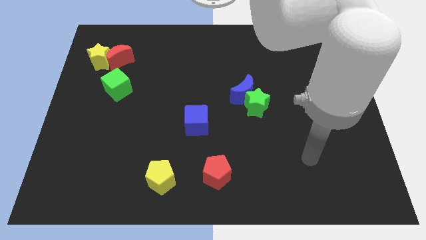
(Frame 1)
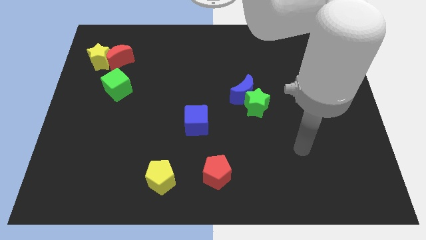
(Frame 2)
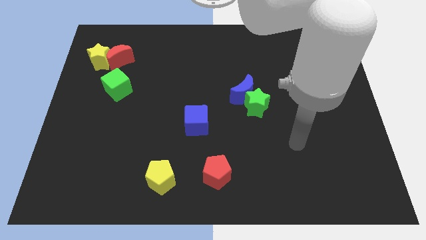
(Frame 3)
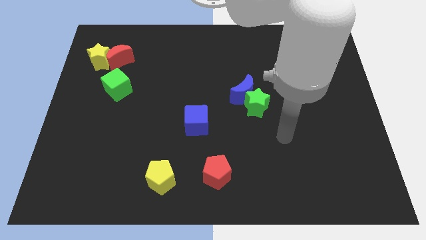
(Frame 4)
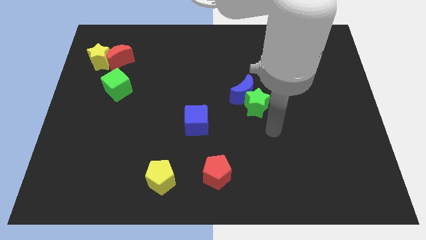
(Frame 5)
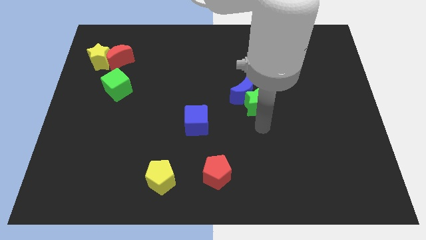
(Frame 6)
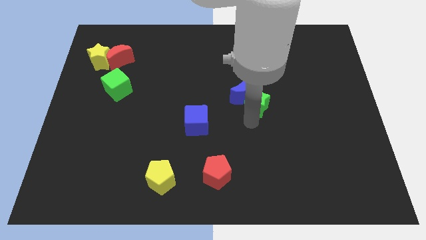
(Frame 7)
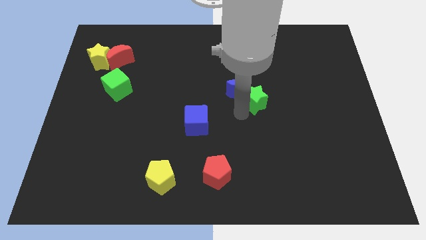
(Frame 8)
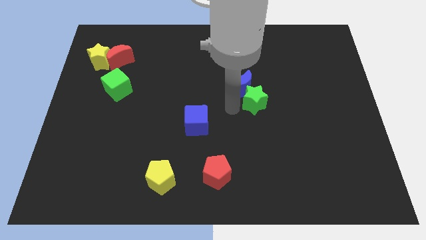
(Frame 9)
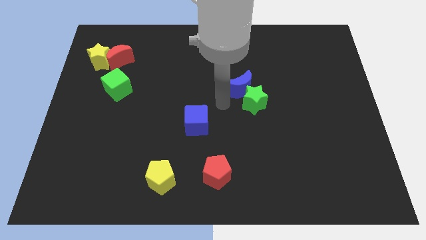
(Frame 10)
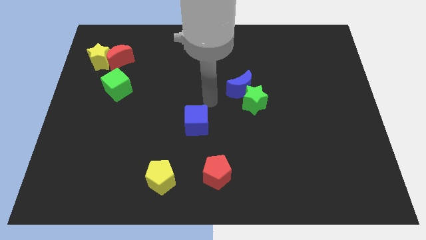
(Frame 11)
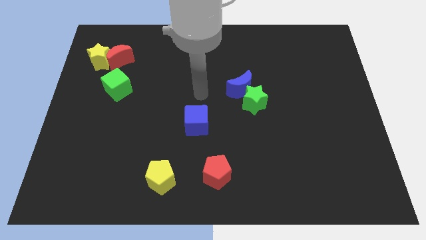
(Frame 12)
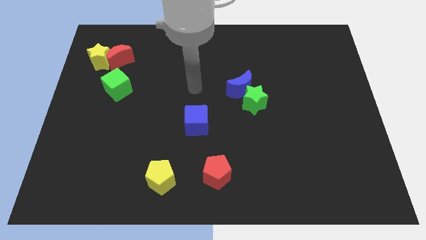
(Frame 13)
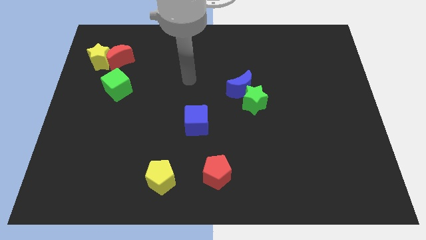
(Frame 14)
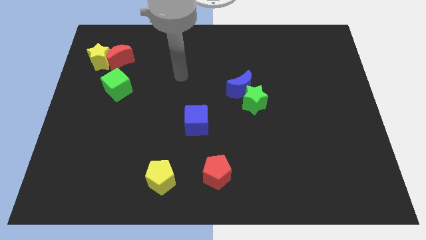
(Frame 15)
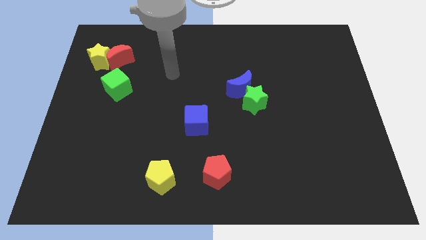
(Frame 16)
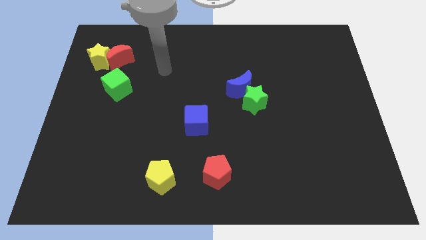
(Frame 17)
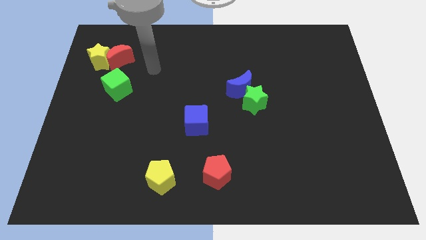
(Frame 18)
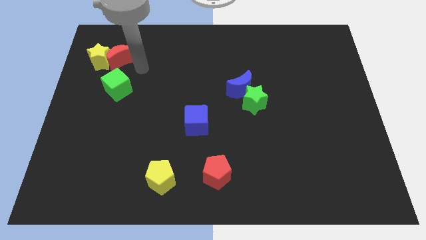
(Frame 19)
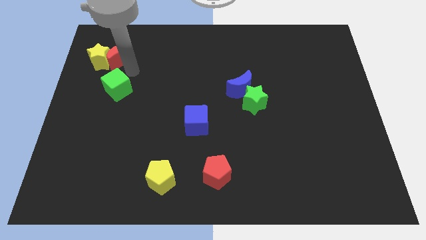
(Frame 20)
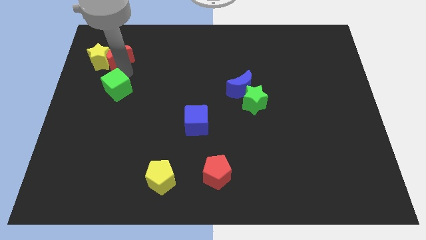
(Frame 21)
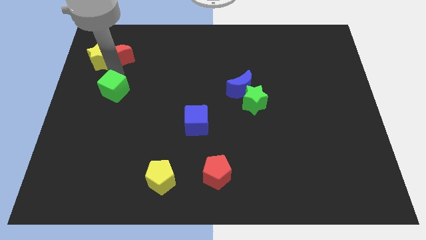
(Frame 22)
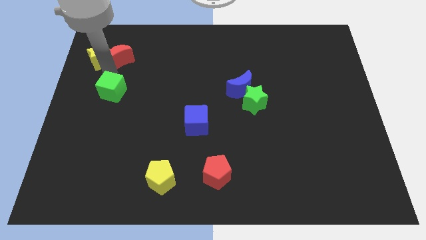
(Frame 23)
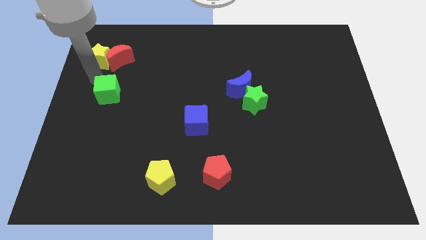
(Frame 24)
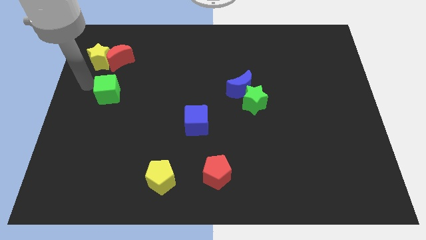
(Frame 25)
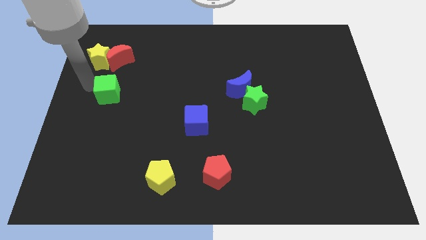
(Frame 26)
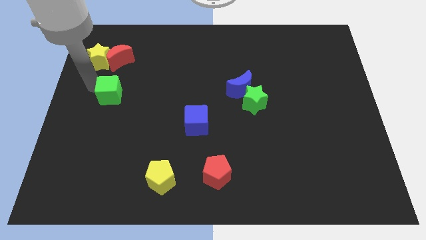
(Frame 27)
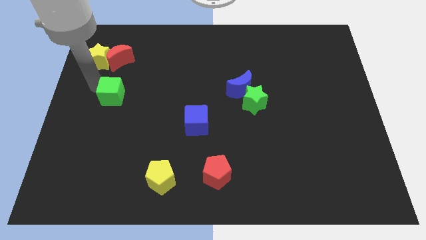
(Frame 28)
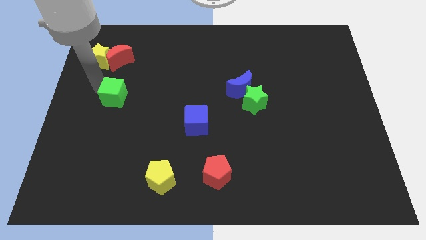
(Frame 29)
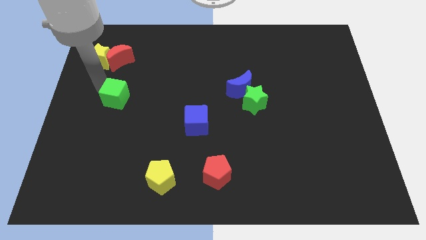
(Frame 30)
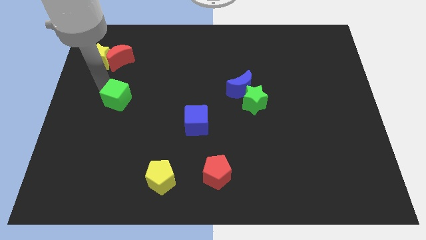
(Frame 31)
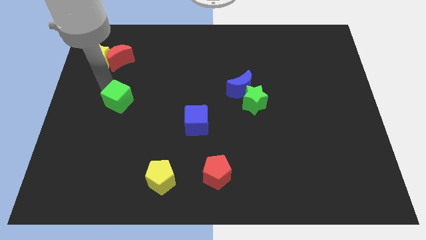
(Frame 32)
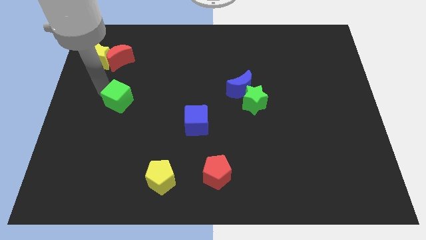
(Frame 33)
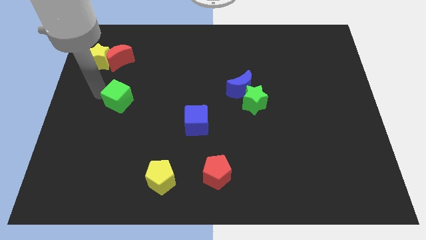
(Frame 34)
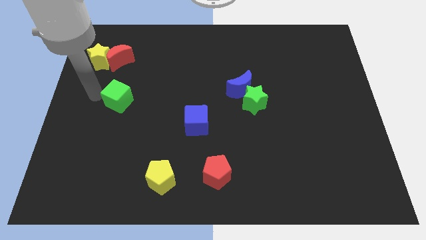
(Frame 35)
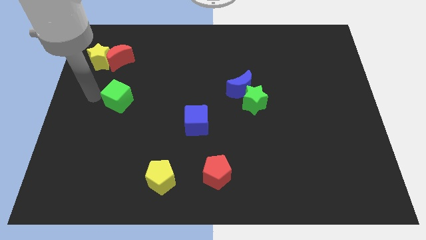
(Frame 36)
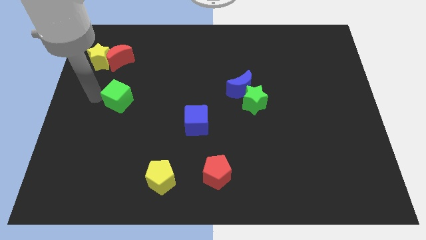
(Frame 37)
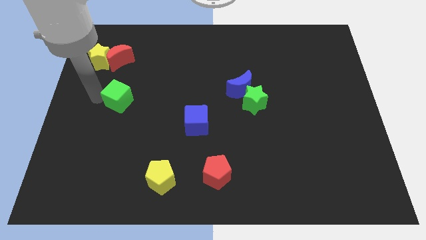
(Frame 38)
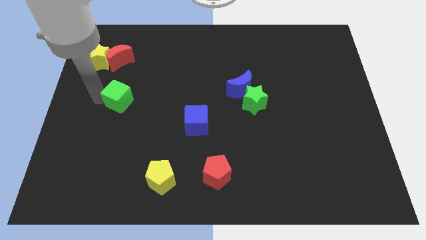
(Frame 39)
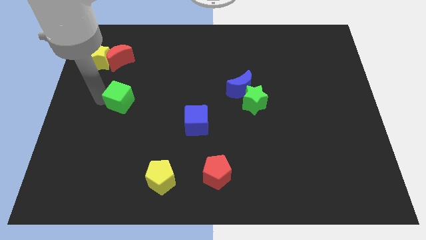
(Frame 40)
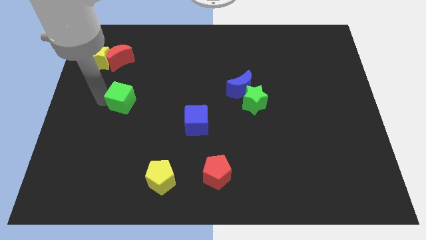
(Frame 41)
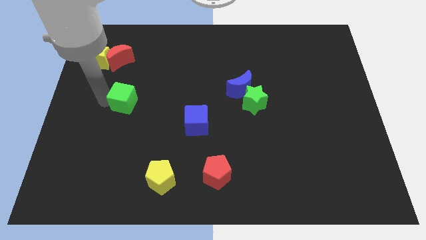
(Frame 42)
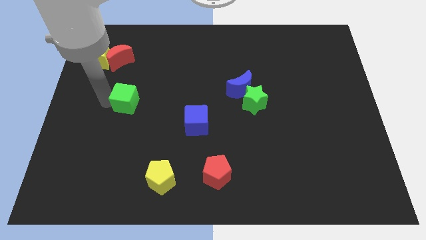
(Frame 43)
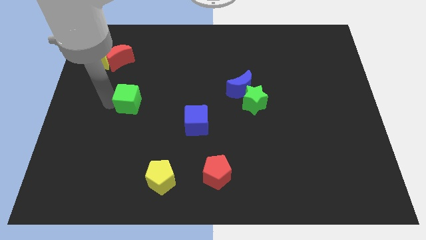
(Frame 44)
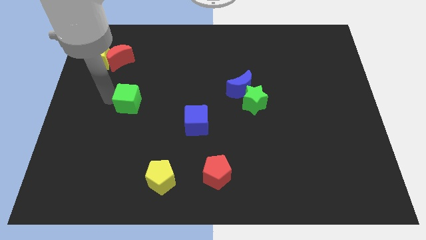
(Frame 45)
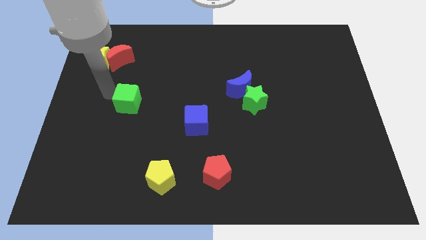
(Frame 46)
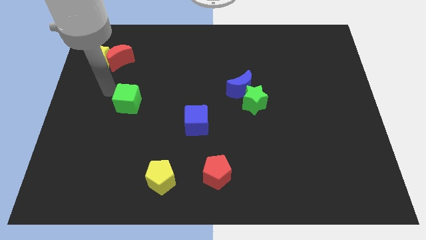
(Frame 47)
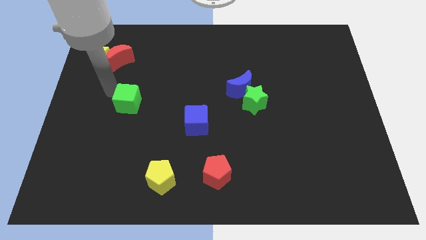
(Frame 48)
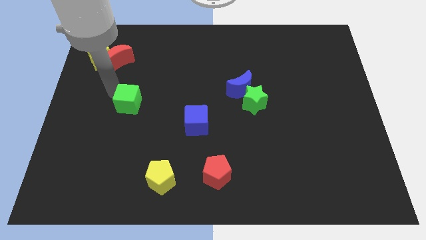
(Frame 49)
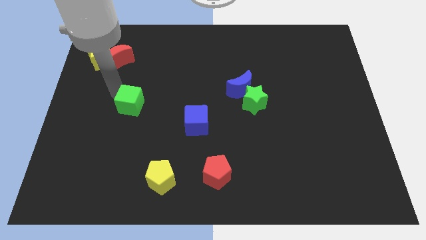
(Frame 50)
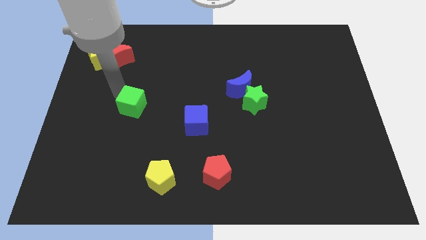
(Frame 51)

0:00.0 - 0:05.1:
slightly slide the green cube down and then right

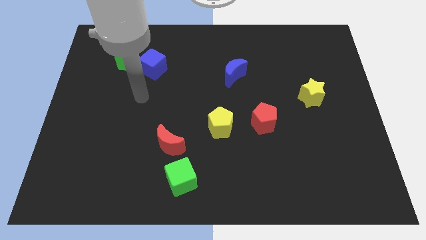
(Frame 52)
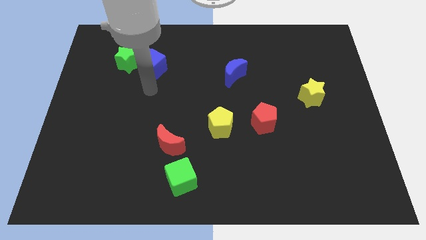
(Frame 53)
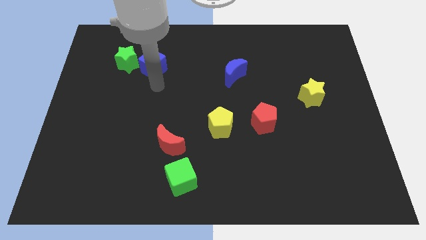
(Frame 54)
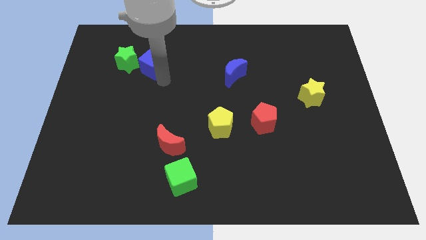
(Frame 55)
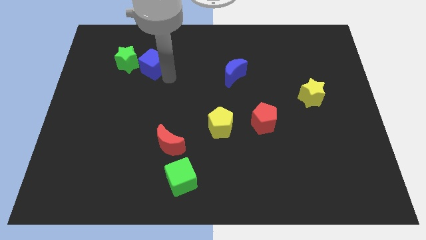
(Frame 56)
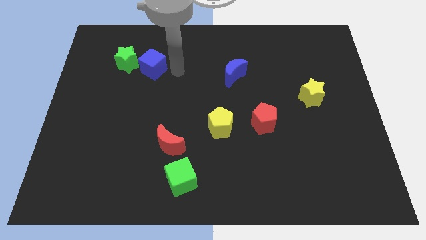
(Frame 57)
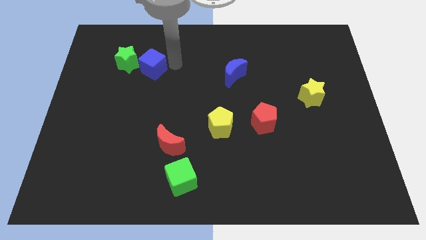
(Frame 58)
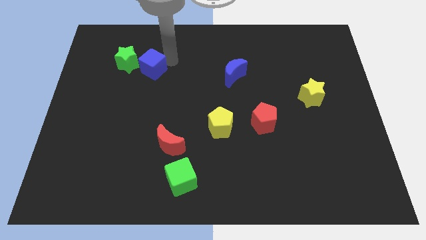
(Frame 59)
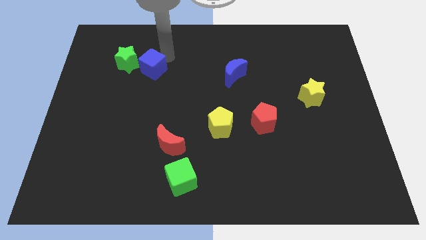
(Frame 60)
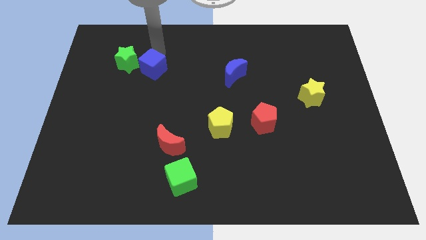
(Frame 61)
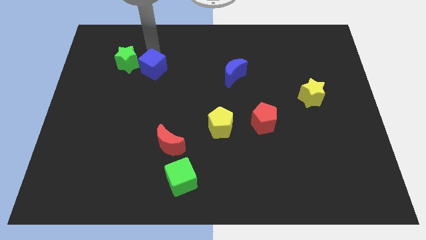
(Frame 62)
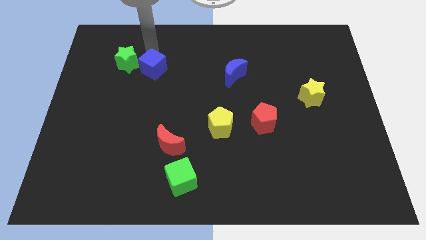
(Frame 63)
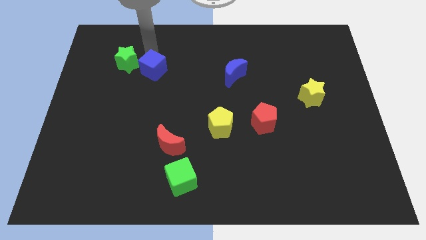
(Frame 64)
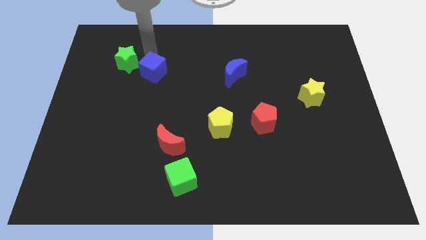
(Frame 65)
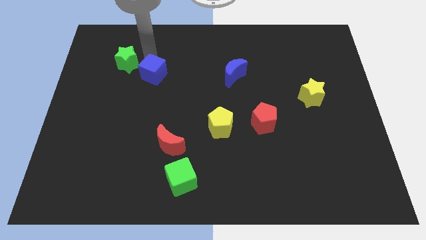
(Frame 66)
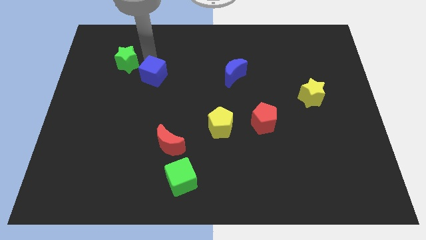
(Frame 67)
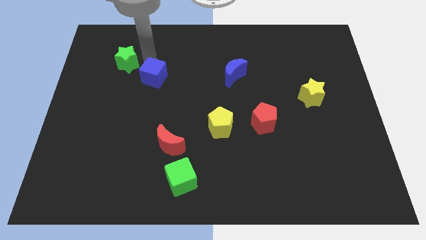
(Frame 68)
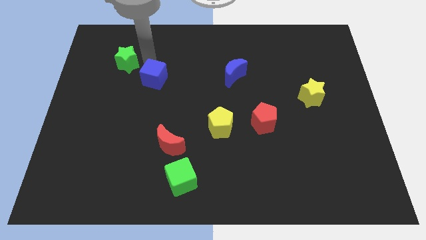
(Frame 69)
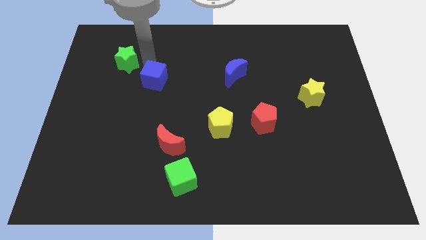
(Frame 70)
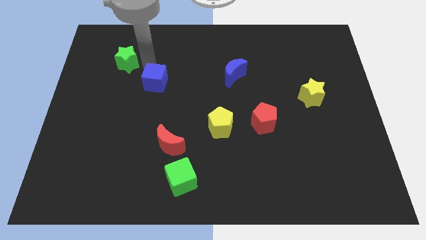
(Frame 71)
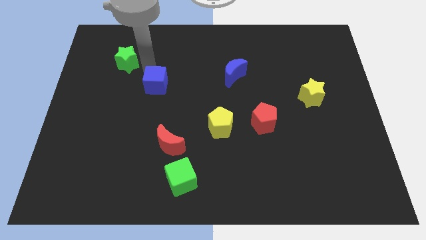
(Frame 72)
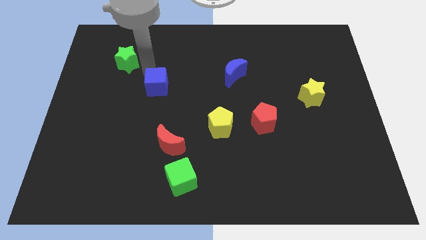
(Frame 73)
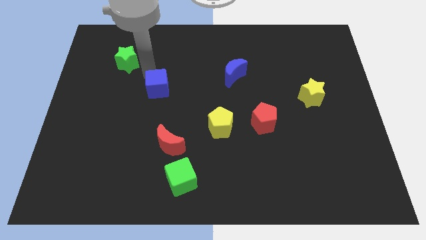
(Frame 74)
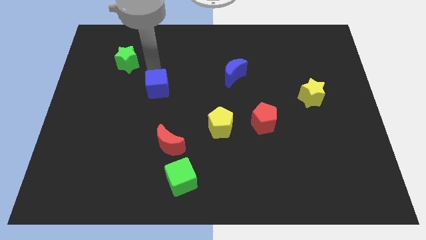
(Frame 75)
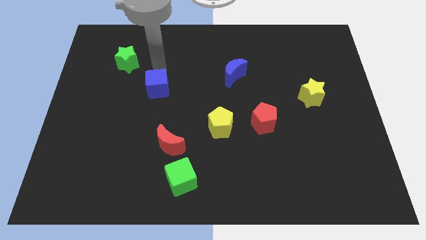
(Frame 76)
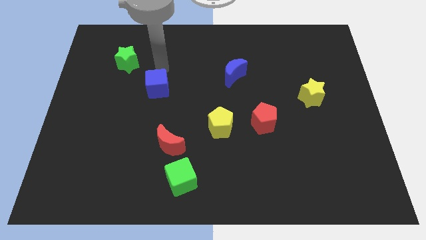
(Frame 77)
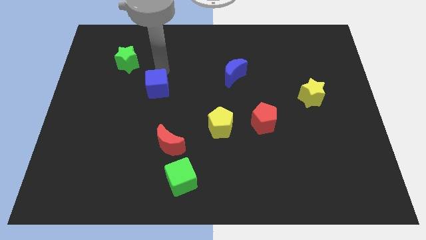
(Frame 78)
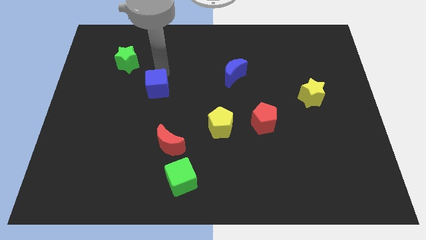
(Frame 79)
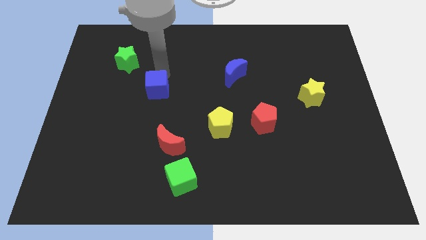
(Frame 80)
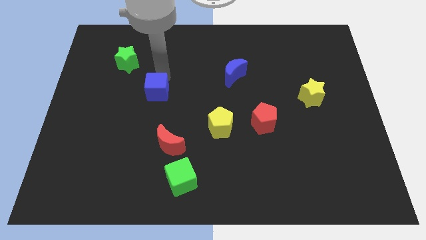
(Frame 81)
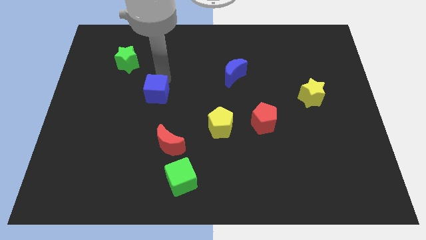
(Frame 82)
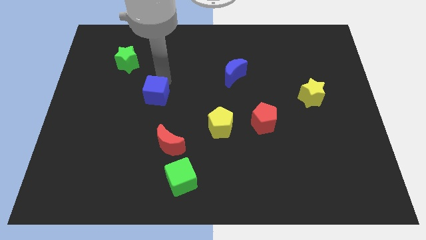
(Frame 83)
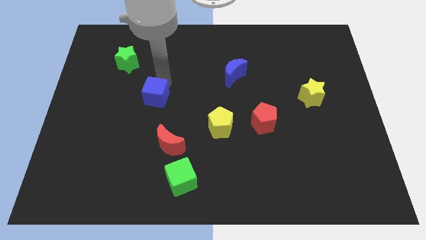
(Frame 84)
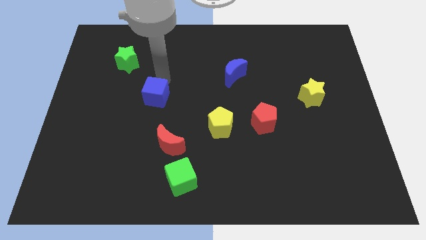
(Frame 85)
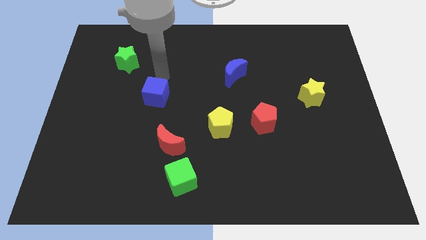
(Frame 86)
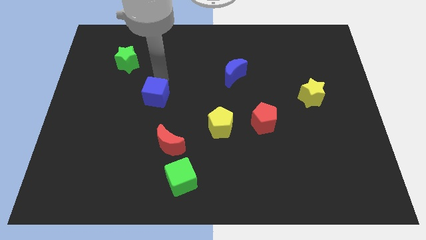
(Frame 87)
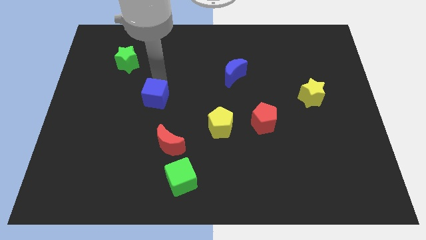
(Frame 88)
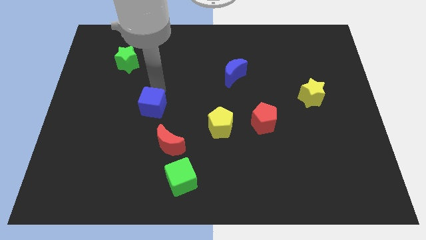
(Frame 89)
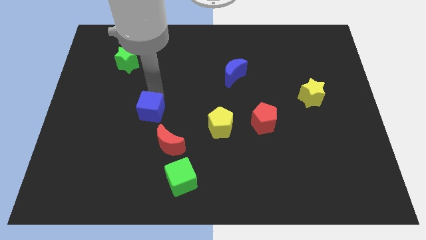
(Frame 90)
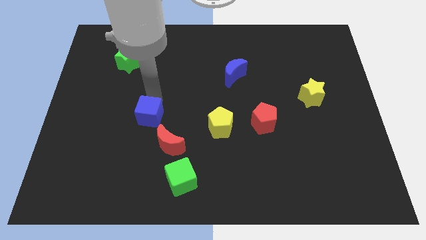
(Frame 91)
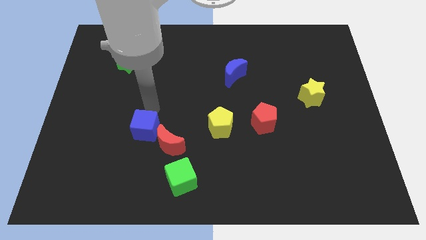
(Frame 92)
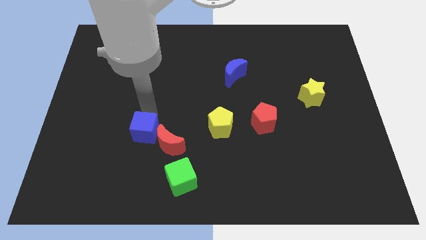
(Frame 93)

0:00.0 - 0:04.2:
slide the blue cube downwards
